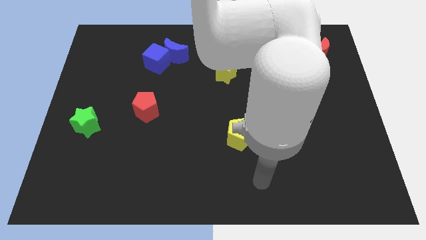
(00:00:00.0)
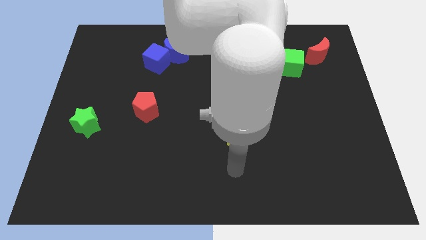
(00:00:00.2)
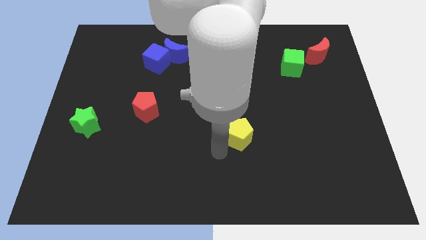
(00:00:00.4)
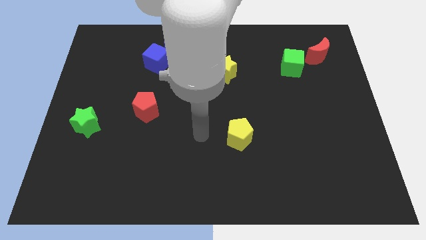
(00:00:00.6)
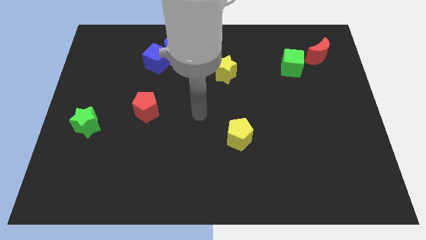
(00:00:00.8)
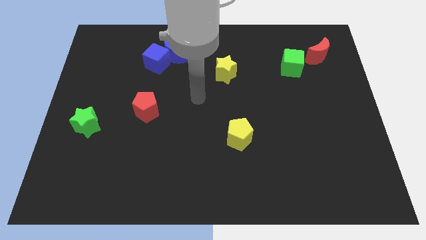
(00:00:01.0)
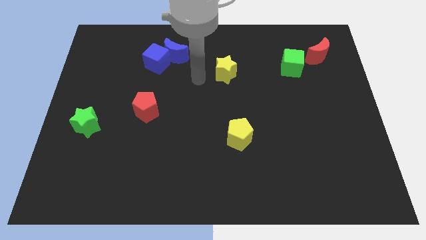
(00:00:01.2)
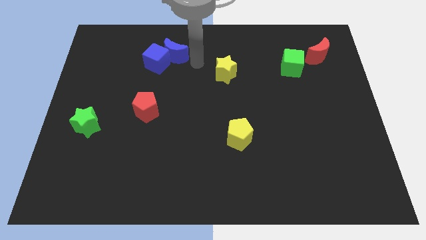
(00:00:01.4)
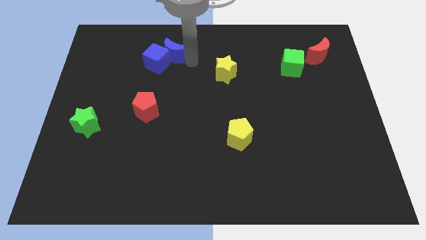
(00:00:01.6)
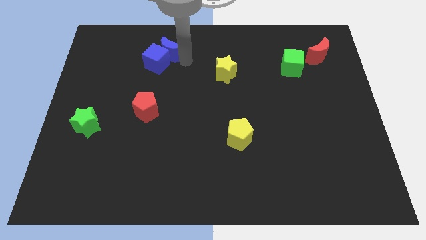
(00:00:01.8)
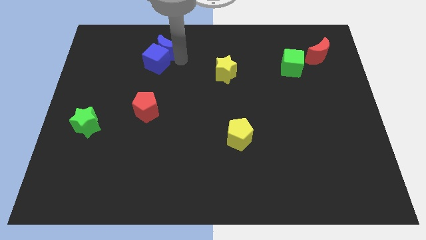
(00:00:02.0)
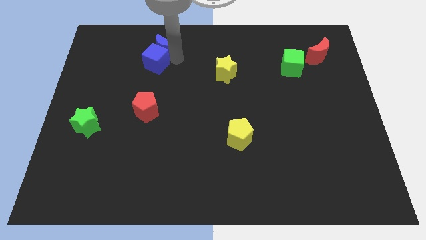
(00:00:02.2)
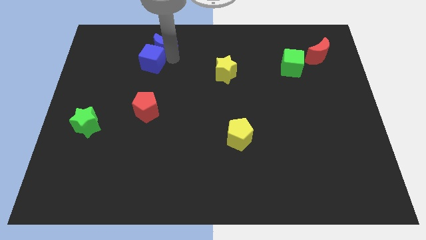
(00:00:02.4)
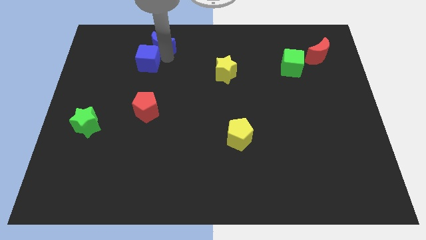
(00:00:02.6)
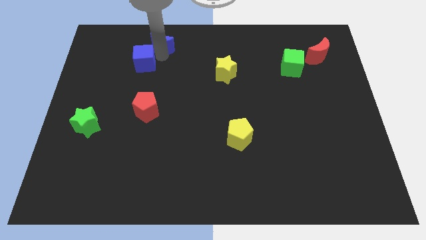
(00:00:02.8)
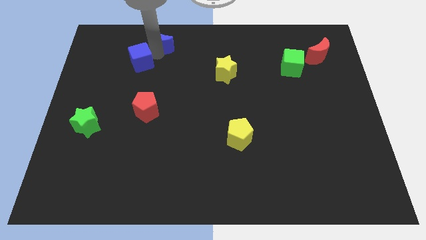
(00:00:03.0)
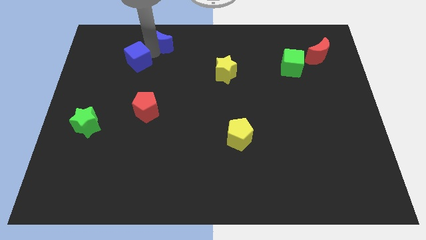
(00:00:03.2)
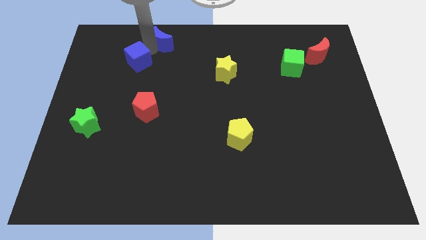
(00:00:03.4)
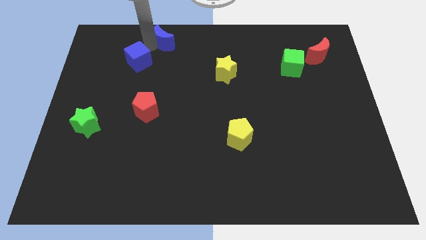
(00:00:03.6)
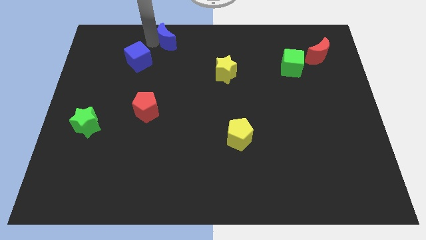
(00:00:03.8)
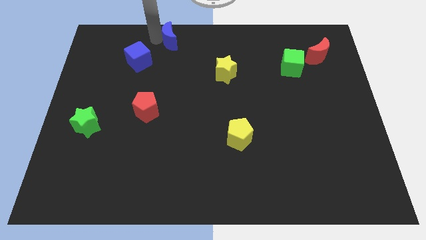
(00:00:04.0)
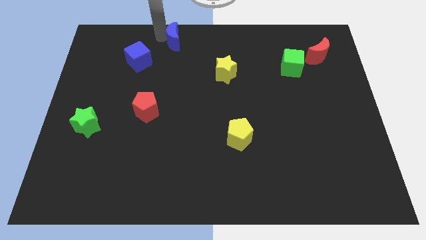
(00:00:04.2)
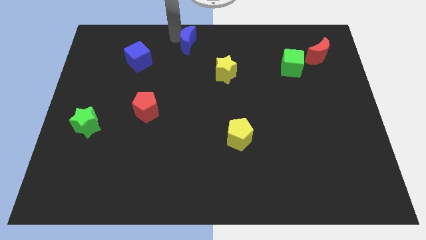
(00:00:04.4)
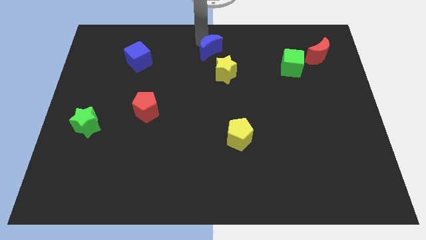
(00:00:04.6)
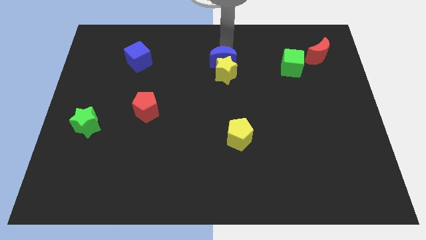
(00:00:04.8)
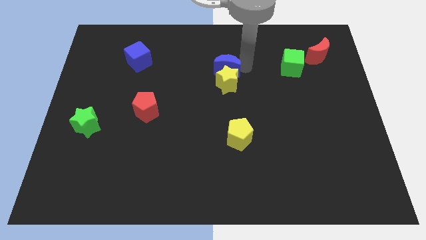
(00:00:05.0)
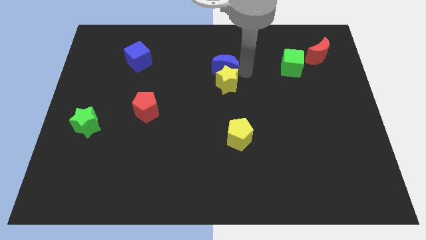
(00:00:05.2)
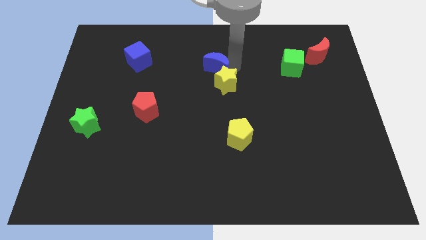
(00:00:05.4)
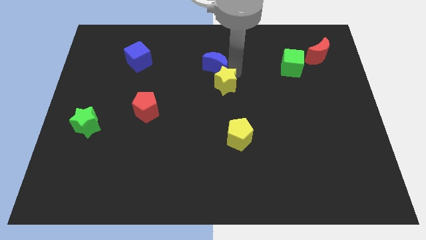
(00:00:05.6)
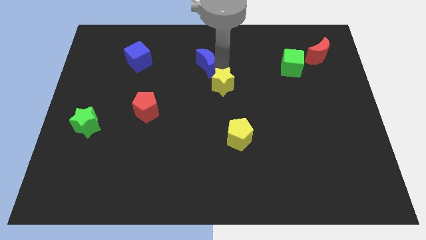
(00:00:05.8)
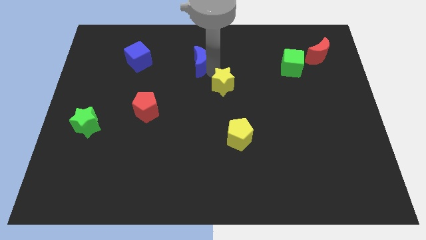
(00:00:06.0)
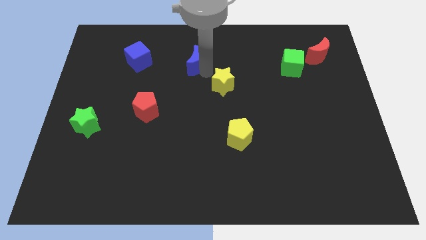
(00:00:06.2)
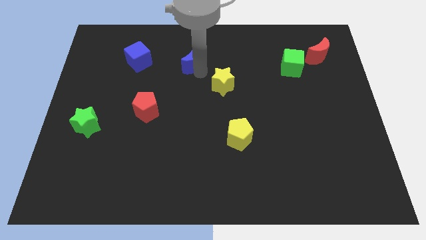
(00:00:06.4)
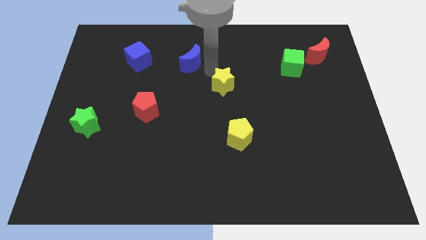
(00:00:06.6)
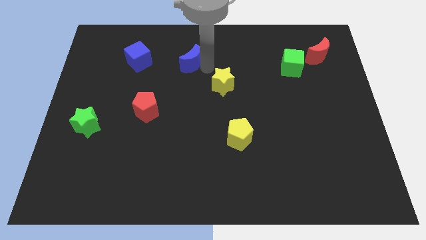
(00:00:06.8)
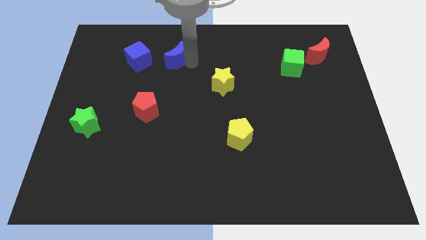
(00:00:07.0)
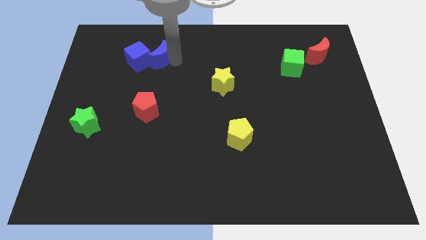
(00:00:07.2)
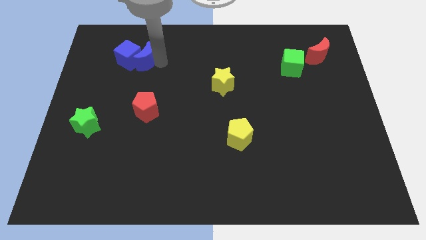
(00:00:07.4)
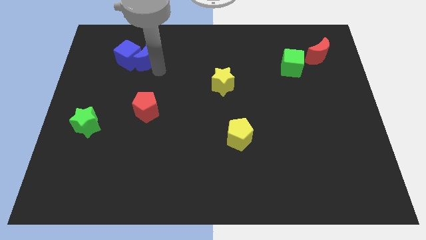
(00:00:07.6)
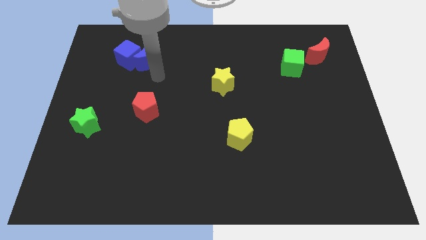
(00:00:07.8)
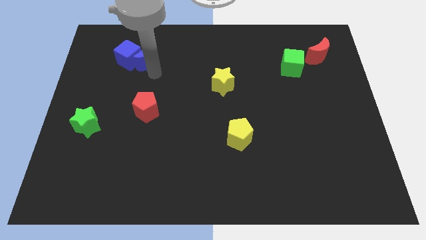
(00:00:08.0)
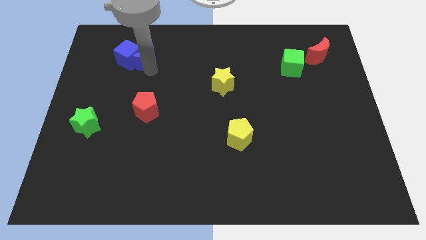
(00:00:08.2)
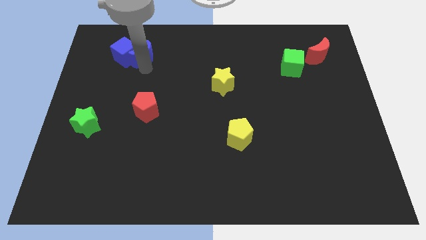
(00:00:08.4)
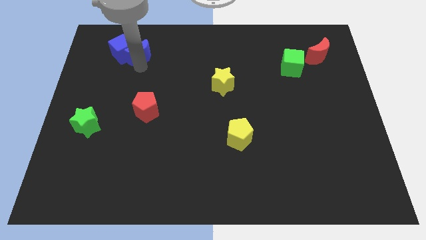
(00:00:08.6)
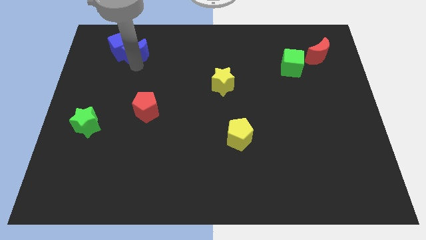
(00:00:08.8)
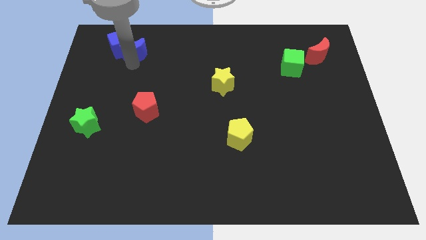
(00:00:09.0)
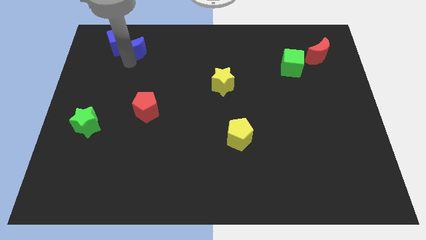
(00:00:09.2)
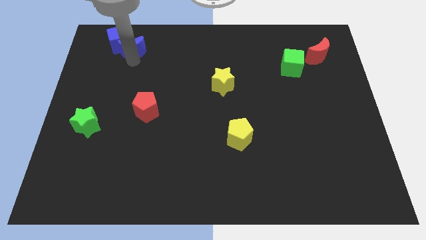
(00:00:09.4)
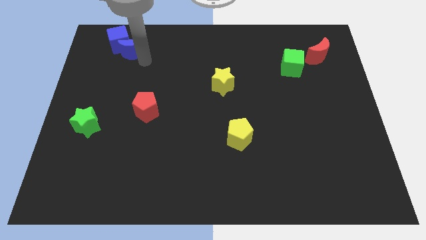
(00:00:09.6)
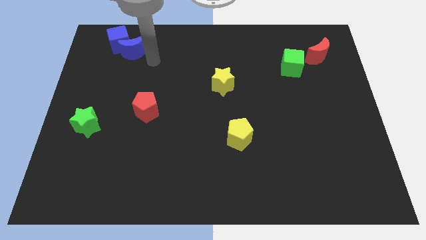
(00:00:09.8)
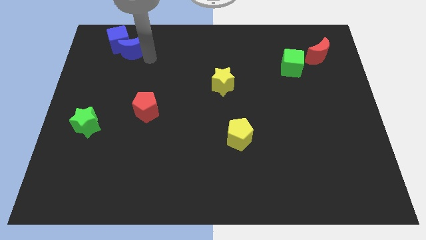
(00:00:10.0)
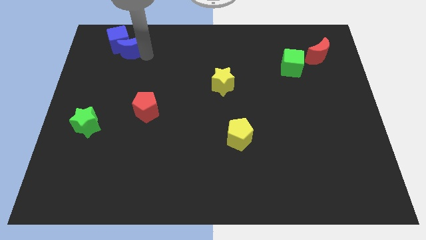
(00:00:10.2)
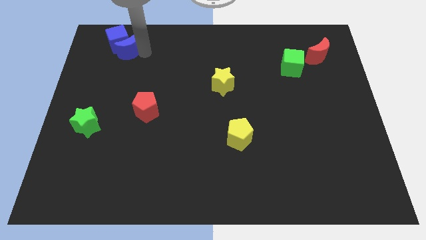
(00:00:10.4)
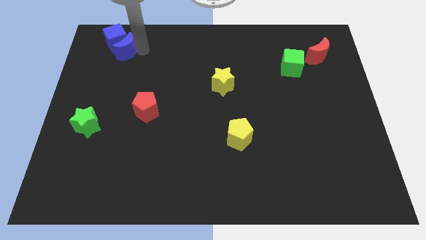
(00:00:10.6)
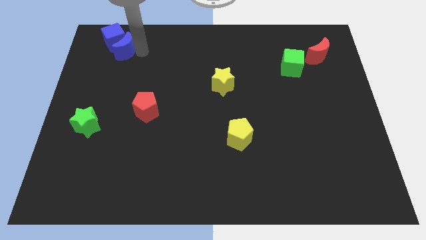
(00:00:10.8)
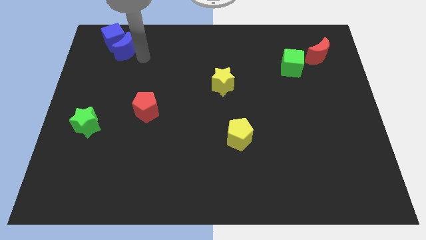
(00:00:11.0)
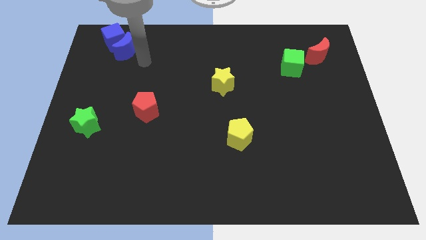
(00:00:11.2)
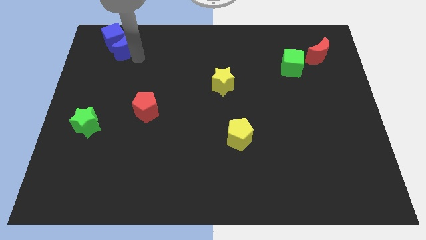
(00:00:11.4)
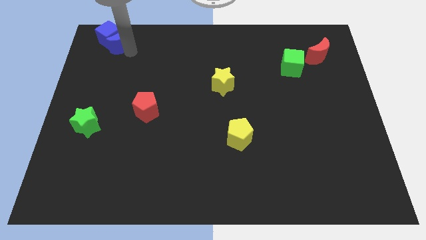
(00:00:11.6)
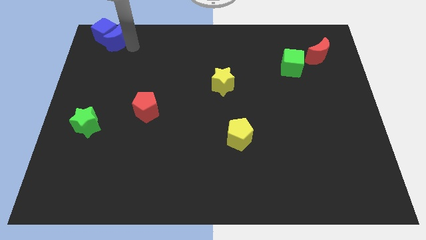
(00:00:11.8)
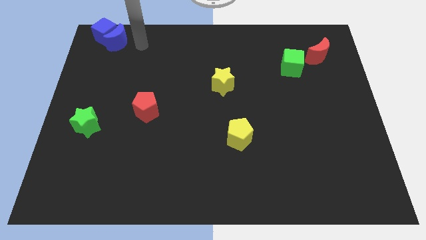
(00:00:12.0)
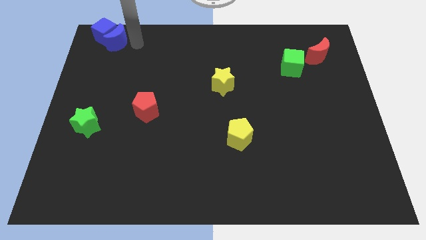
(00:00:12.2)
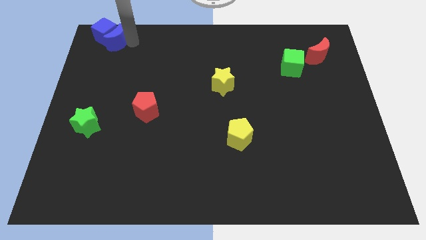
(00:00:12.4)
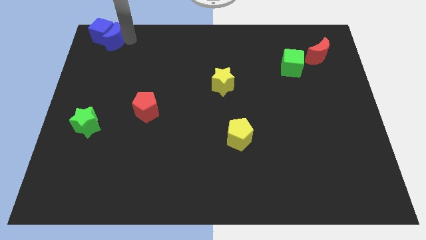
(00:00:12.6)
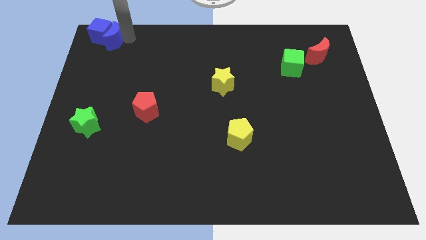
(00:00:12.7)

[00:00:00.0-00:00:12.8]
push the blue moon to the top left corner
